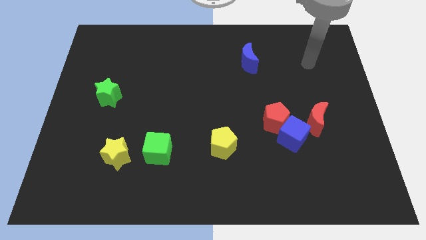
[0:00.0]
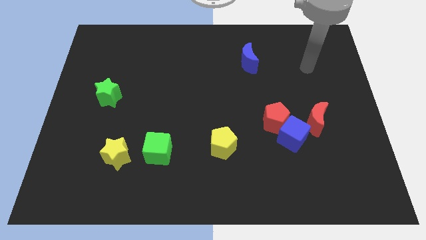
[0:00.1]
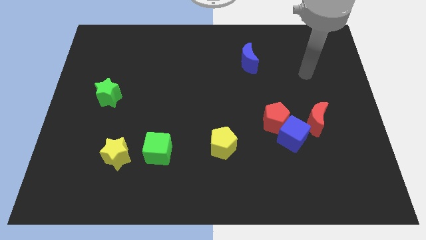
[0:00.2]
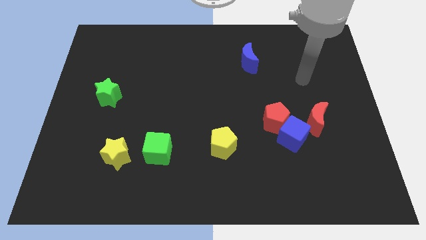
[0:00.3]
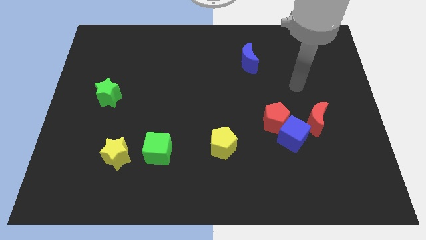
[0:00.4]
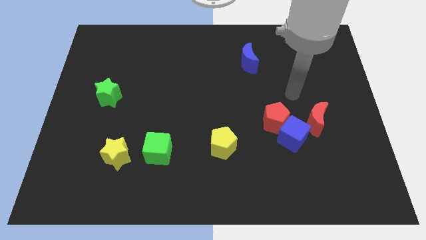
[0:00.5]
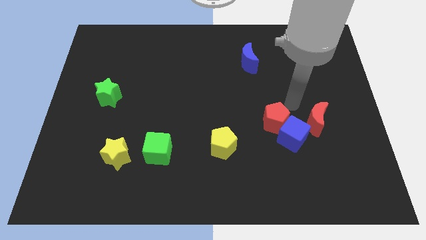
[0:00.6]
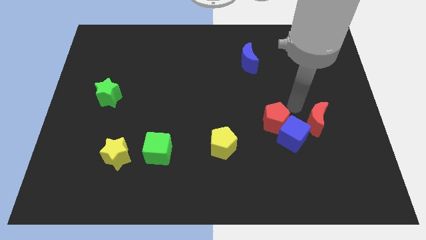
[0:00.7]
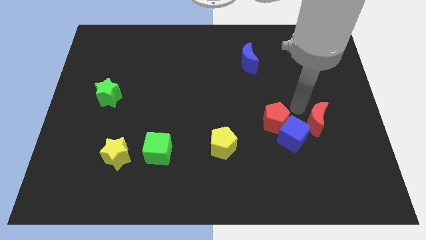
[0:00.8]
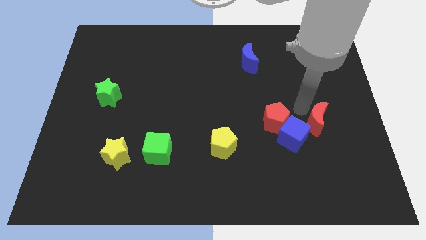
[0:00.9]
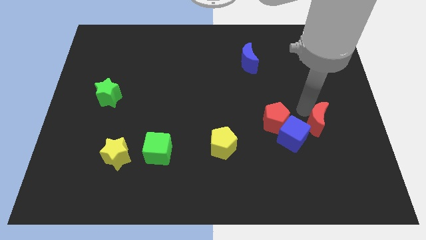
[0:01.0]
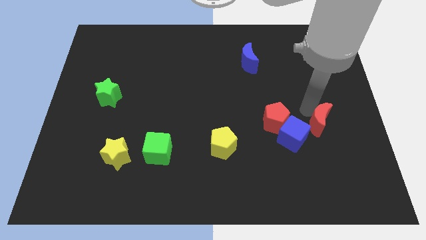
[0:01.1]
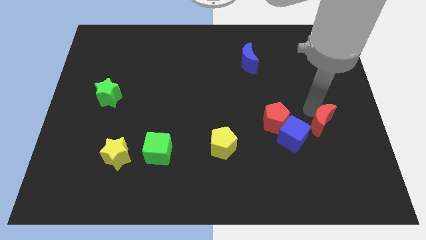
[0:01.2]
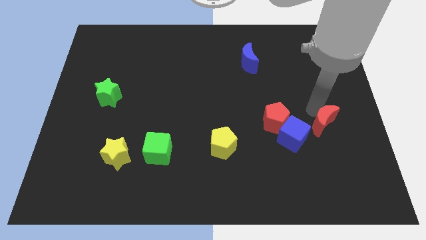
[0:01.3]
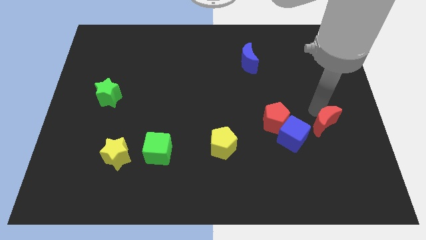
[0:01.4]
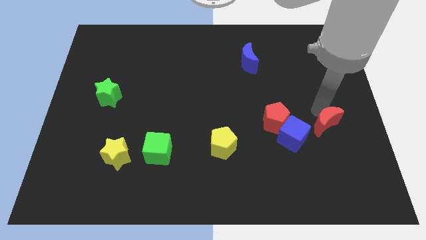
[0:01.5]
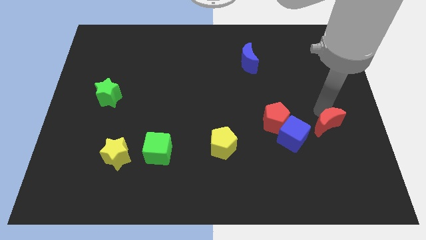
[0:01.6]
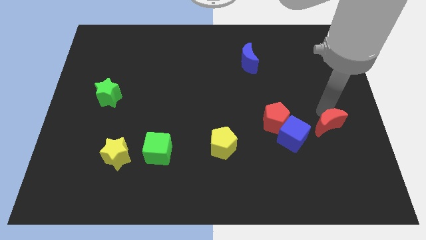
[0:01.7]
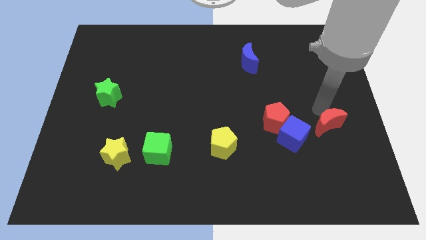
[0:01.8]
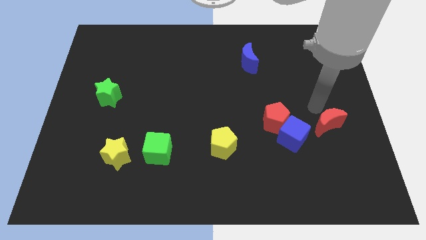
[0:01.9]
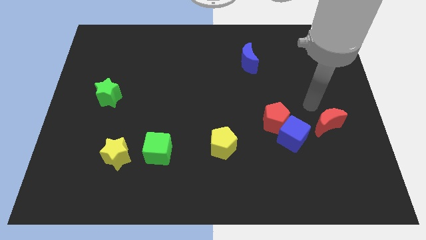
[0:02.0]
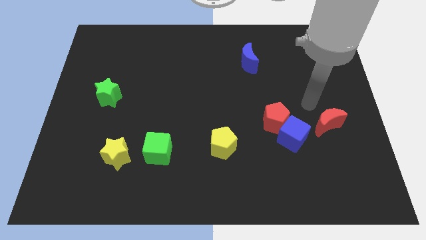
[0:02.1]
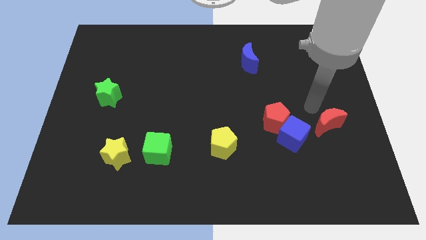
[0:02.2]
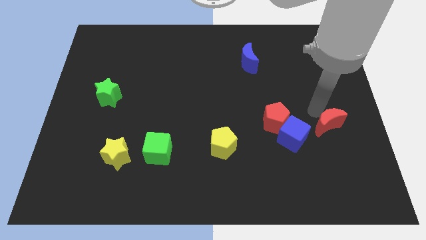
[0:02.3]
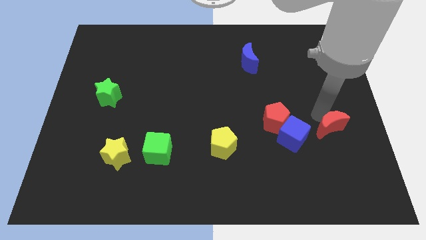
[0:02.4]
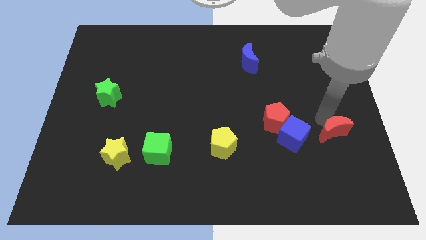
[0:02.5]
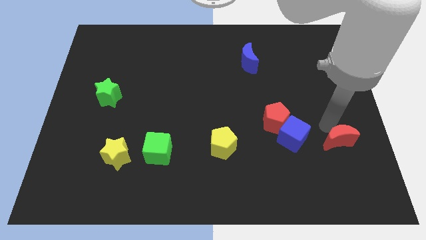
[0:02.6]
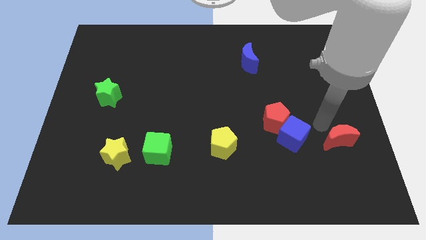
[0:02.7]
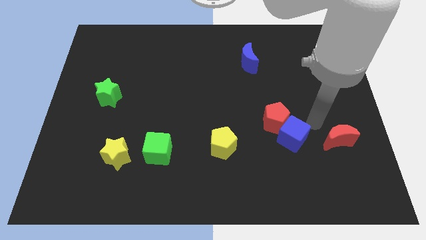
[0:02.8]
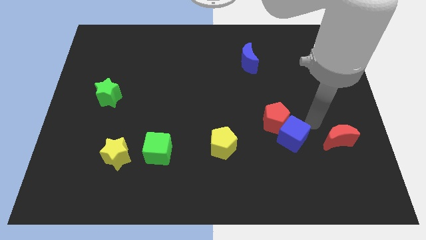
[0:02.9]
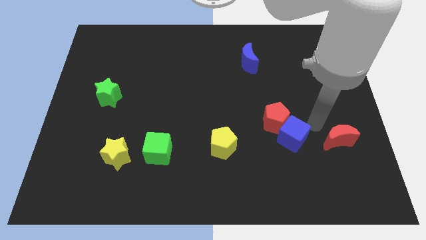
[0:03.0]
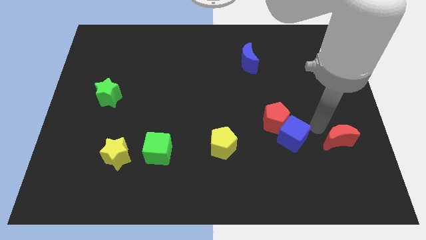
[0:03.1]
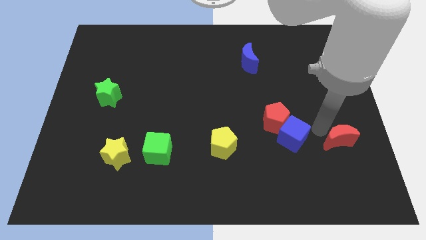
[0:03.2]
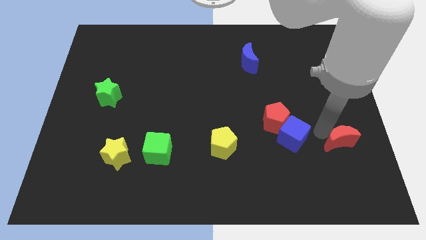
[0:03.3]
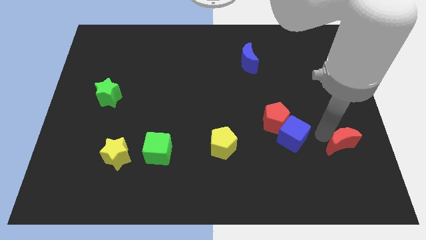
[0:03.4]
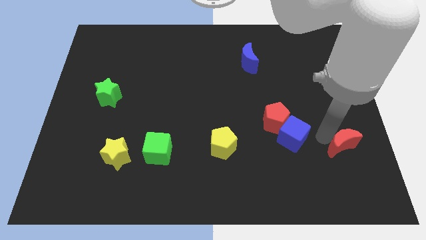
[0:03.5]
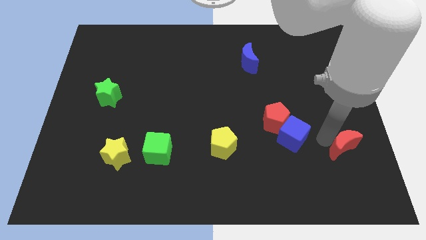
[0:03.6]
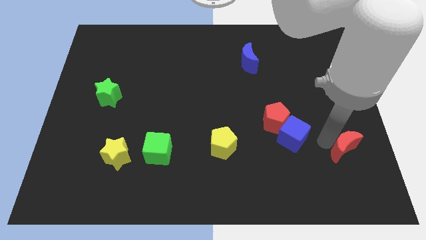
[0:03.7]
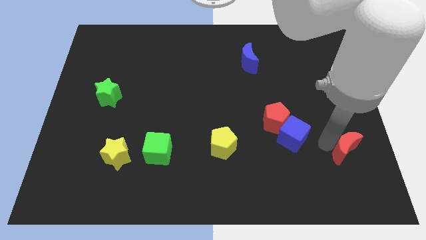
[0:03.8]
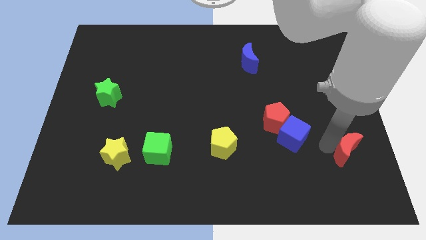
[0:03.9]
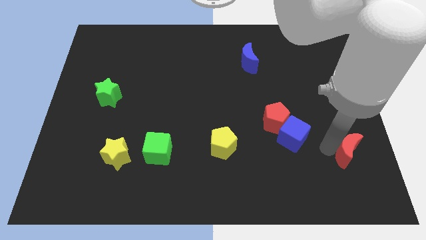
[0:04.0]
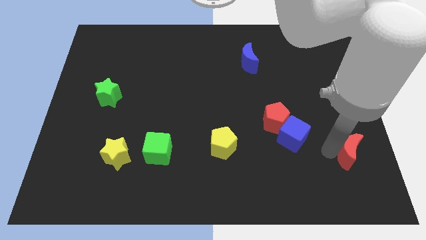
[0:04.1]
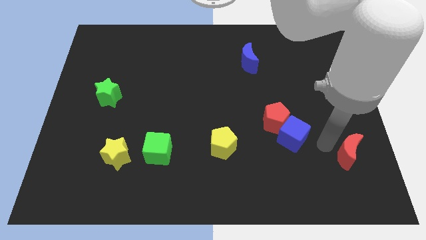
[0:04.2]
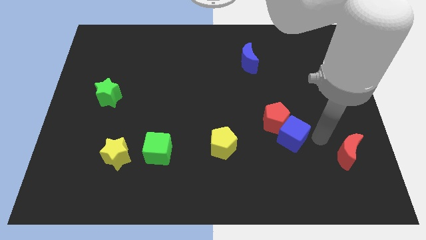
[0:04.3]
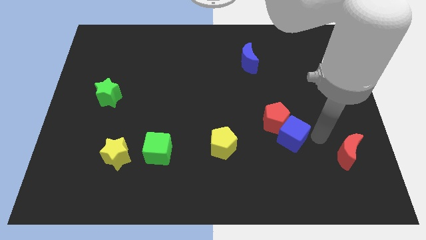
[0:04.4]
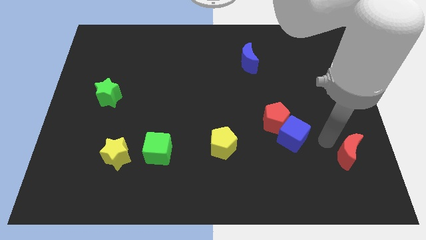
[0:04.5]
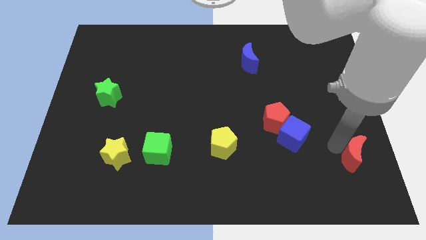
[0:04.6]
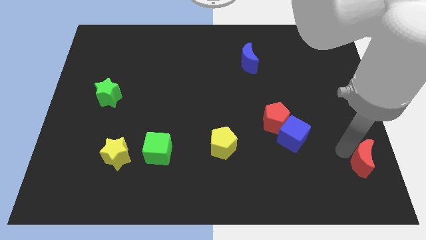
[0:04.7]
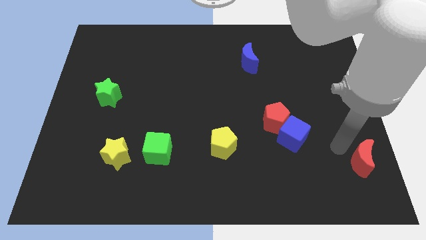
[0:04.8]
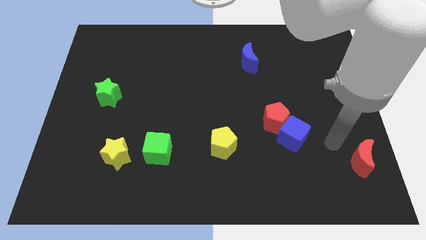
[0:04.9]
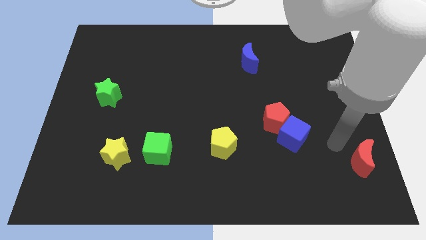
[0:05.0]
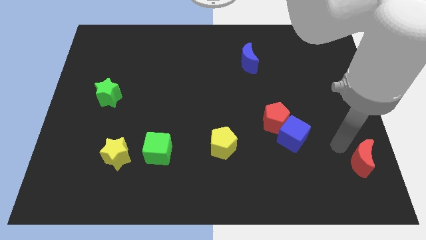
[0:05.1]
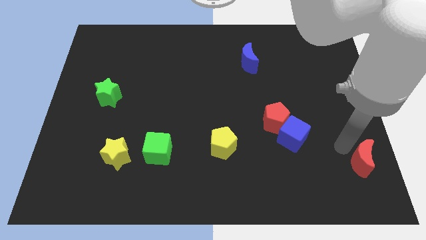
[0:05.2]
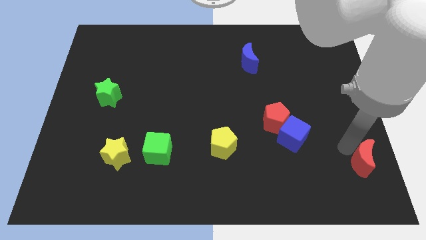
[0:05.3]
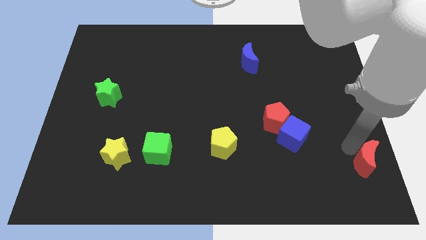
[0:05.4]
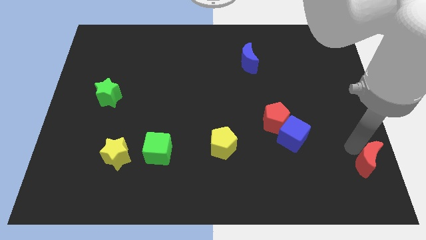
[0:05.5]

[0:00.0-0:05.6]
put the red moon to the bottom right corner

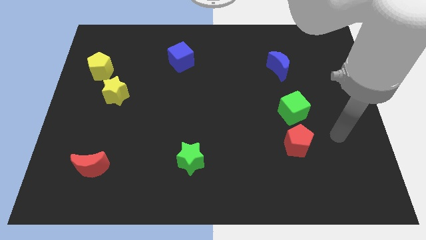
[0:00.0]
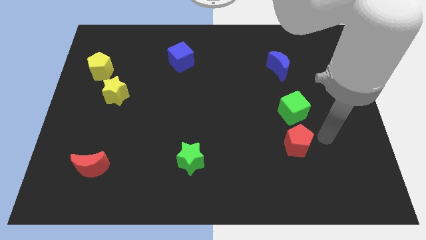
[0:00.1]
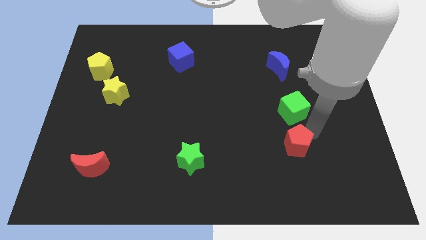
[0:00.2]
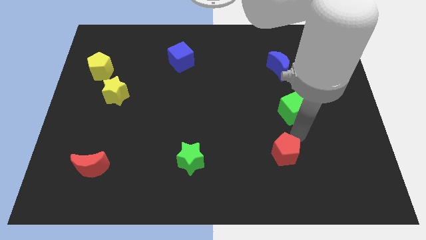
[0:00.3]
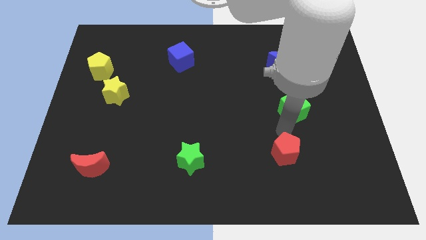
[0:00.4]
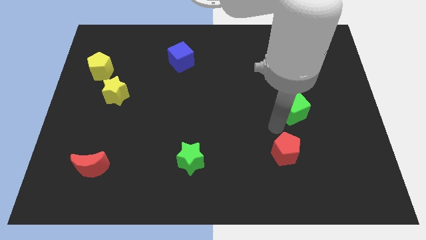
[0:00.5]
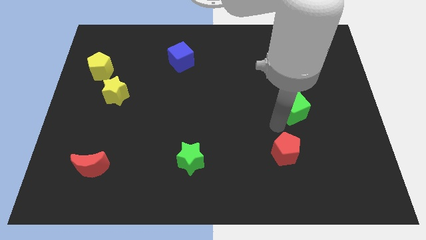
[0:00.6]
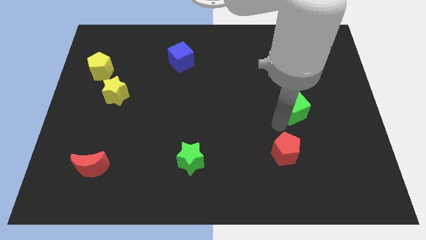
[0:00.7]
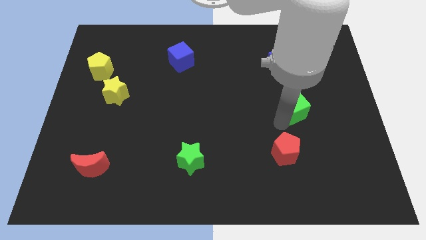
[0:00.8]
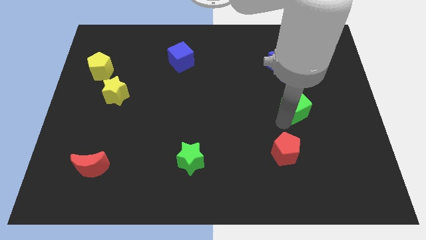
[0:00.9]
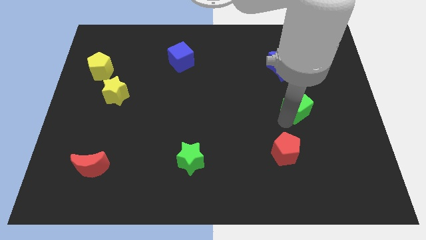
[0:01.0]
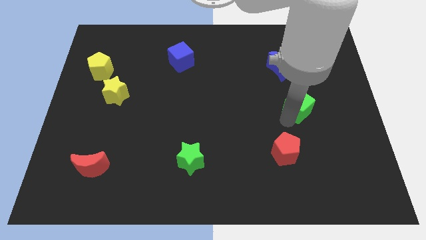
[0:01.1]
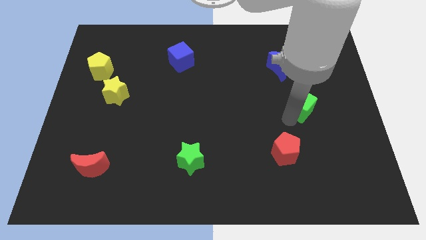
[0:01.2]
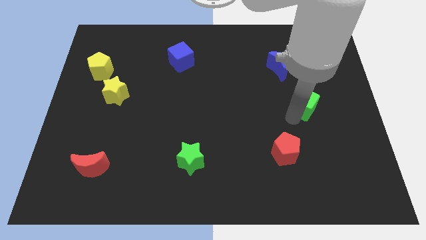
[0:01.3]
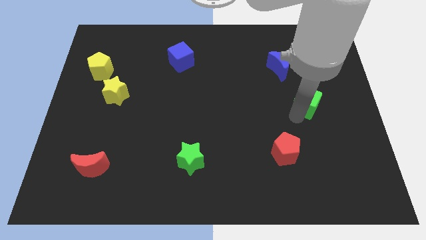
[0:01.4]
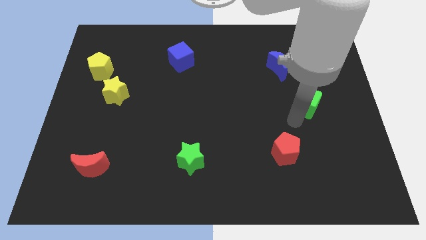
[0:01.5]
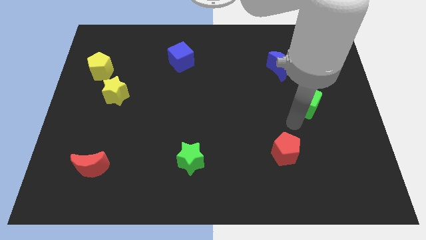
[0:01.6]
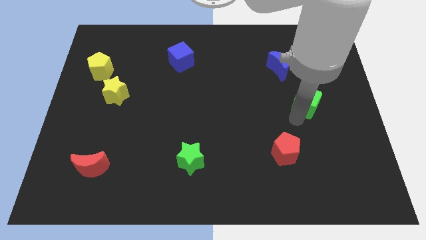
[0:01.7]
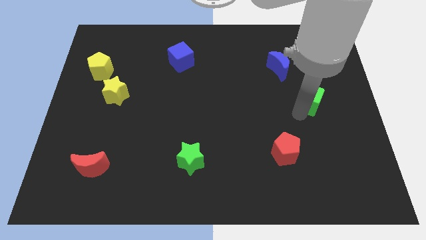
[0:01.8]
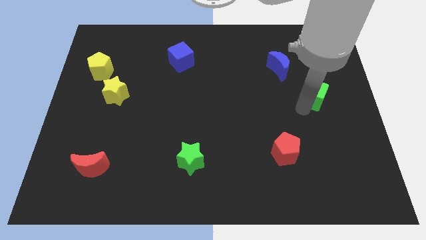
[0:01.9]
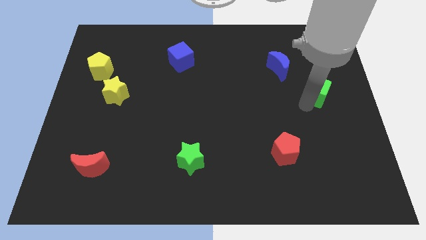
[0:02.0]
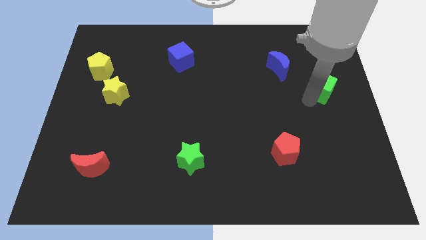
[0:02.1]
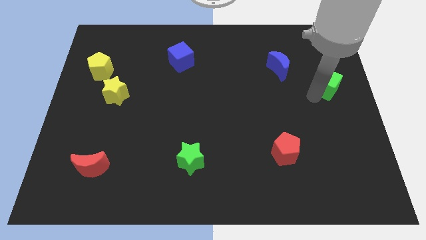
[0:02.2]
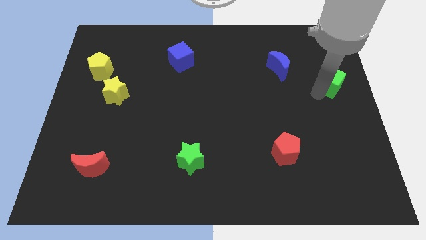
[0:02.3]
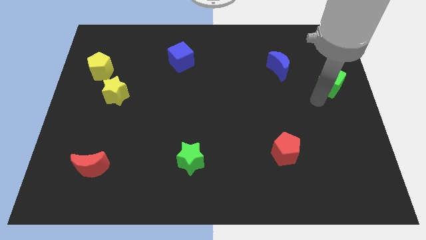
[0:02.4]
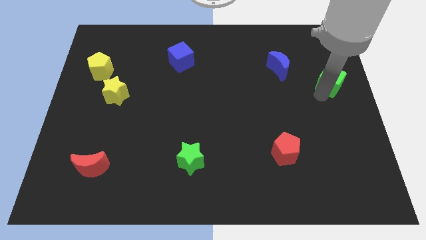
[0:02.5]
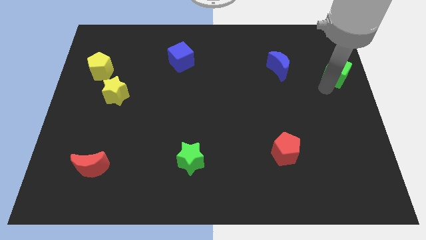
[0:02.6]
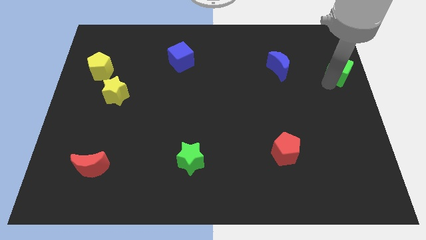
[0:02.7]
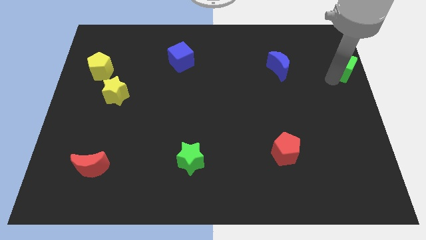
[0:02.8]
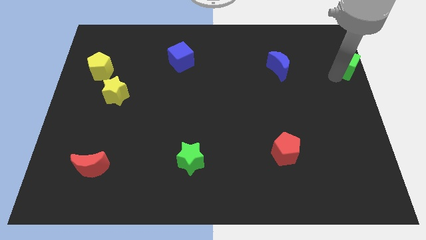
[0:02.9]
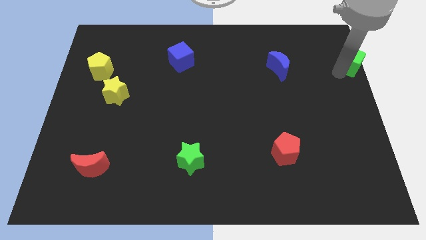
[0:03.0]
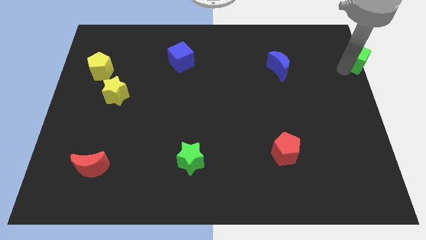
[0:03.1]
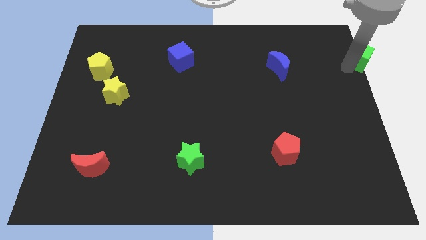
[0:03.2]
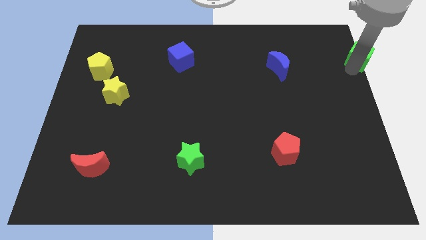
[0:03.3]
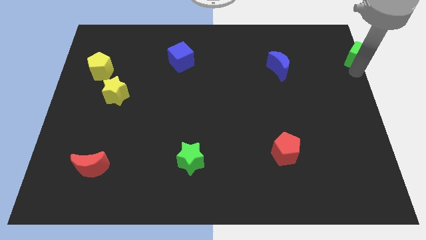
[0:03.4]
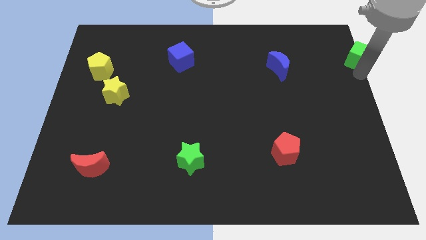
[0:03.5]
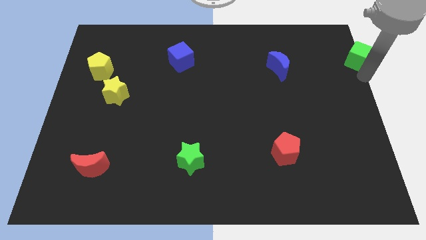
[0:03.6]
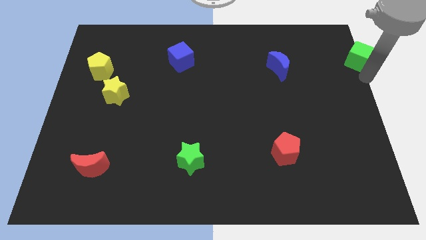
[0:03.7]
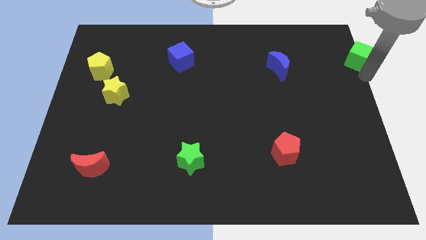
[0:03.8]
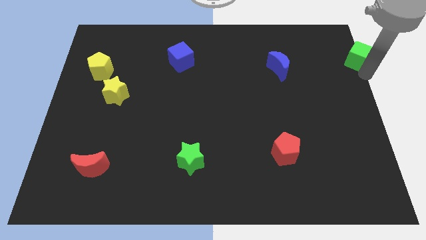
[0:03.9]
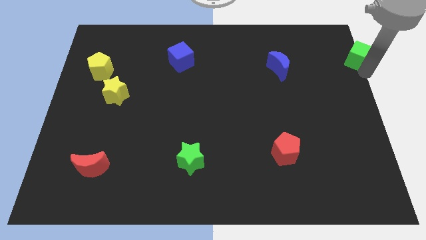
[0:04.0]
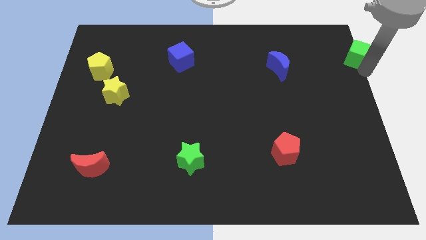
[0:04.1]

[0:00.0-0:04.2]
move the green cube to the top right corner
